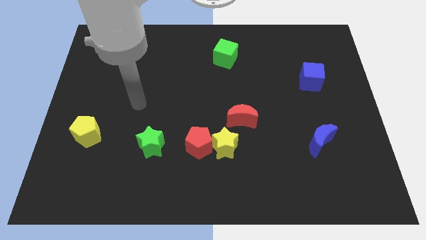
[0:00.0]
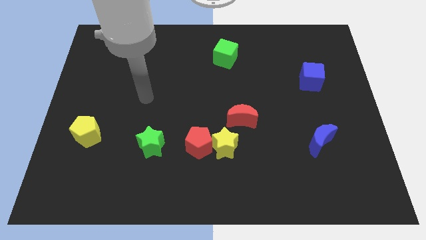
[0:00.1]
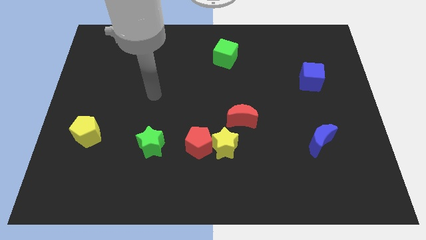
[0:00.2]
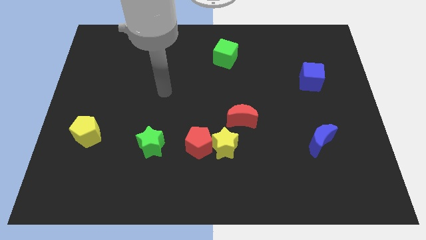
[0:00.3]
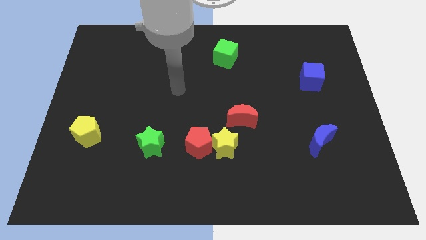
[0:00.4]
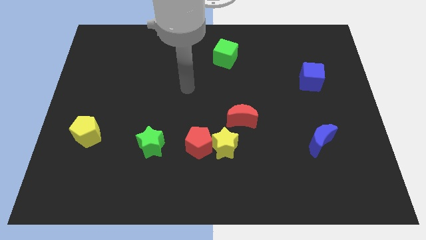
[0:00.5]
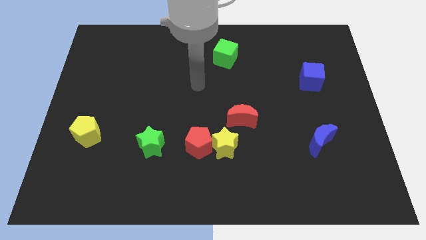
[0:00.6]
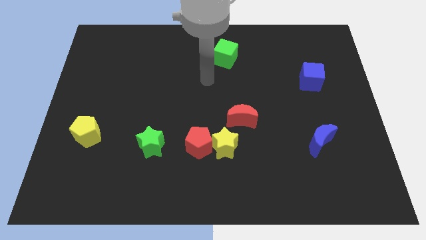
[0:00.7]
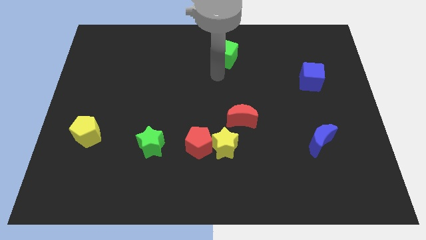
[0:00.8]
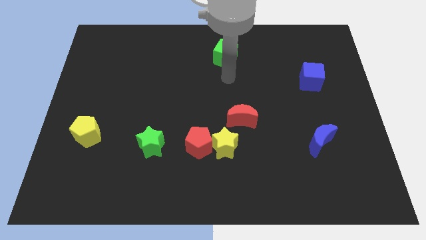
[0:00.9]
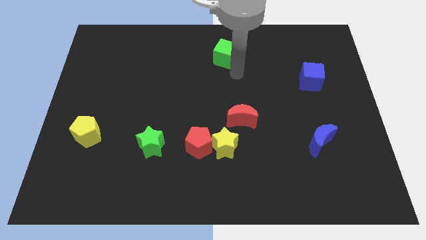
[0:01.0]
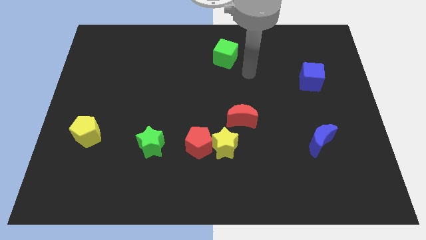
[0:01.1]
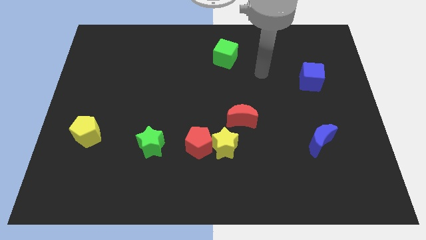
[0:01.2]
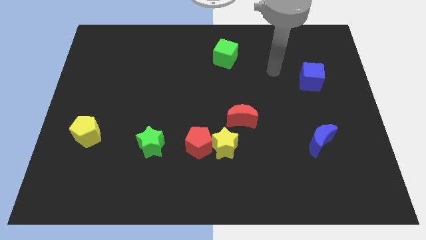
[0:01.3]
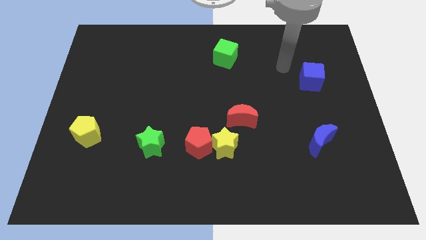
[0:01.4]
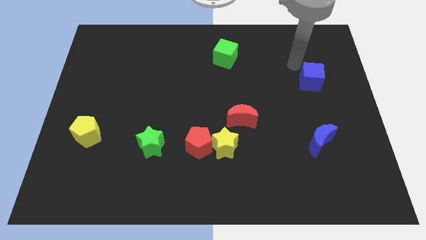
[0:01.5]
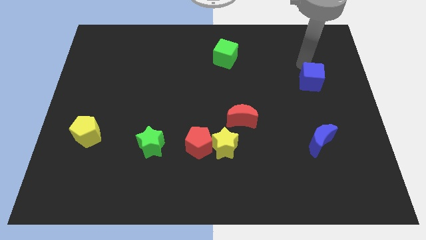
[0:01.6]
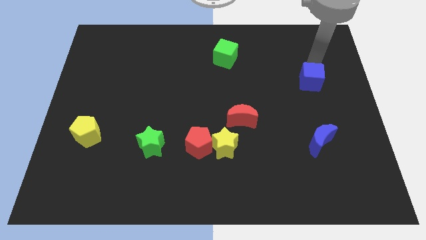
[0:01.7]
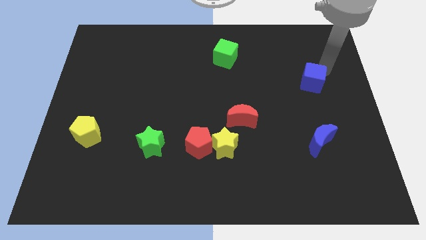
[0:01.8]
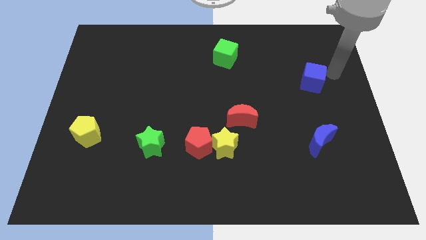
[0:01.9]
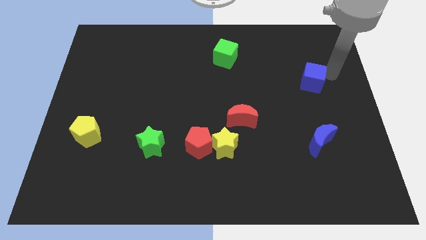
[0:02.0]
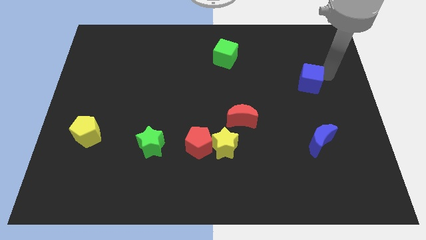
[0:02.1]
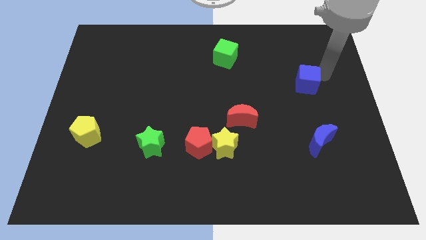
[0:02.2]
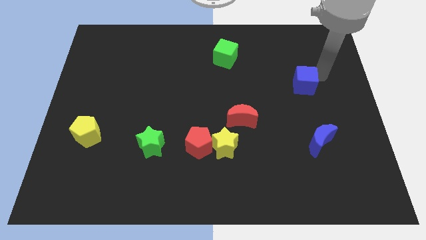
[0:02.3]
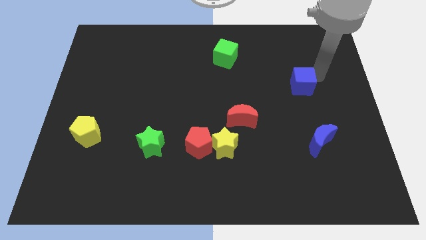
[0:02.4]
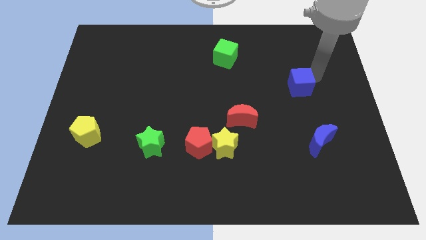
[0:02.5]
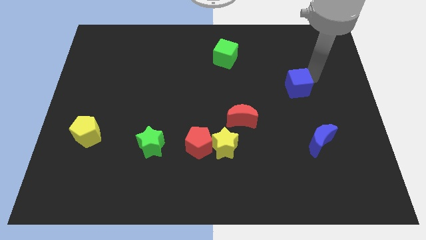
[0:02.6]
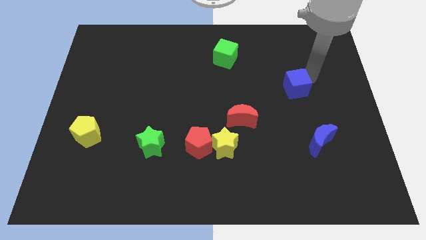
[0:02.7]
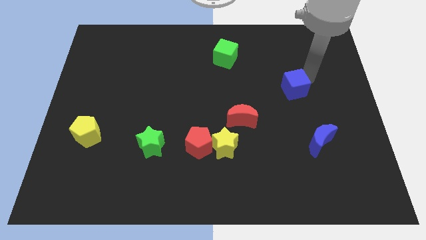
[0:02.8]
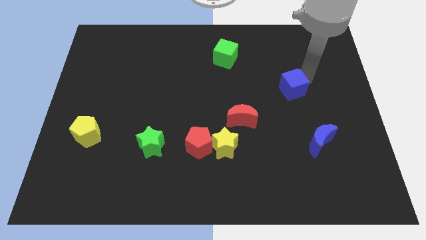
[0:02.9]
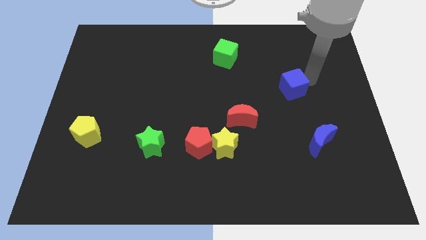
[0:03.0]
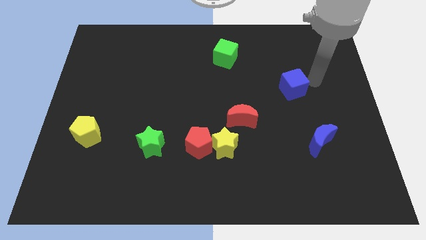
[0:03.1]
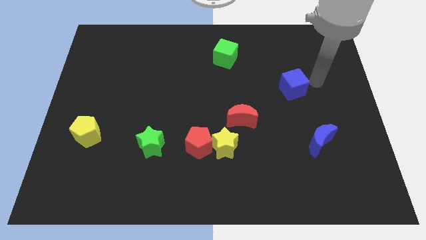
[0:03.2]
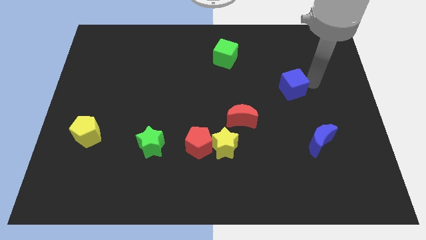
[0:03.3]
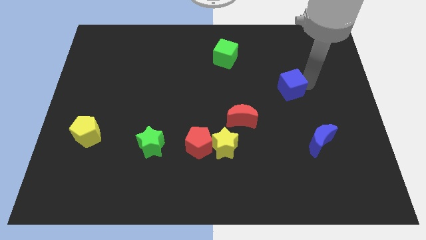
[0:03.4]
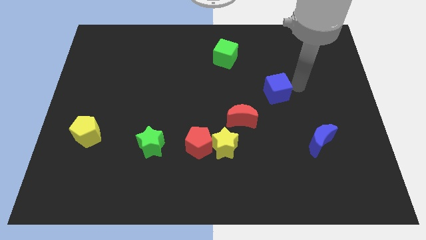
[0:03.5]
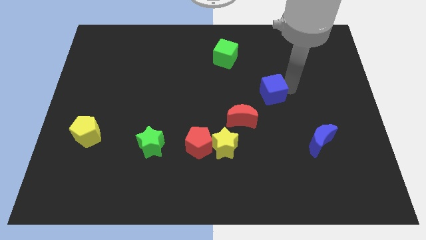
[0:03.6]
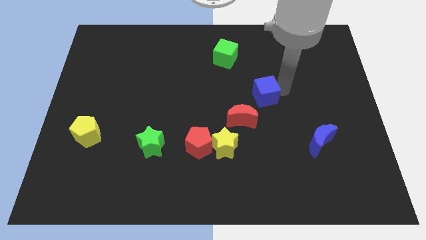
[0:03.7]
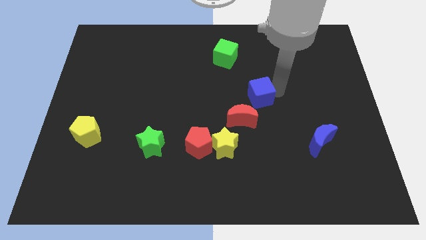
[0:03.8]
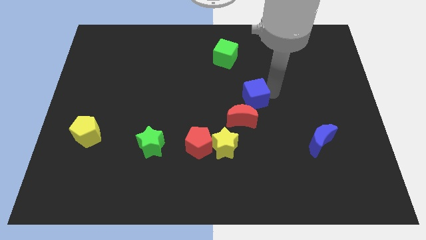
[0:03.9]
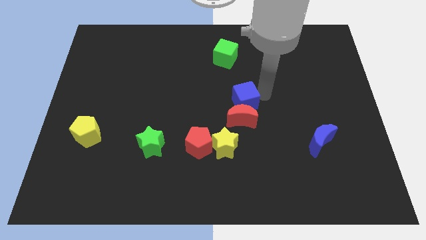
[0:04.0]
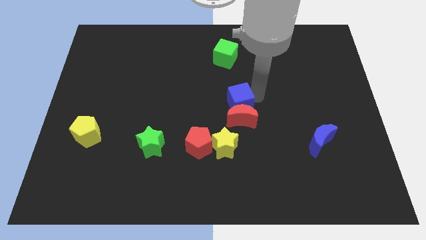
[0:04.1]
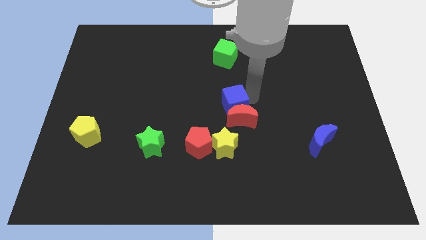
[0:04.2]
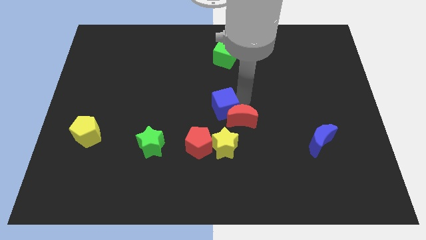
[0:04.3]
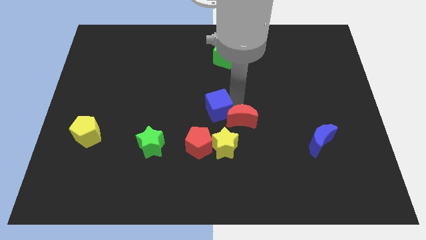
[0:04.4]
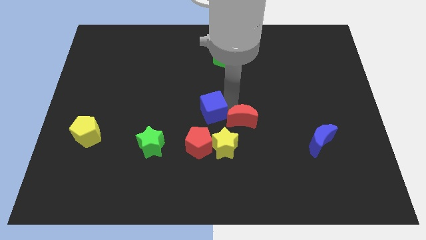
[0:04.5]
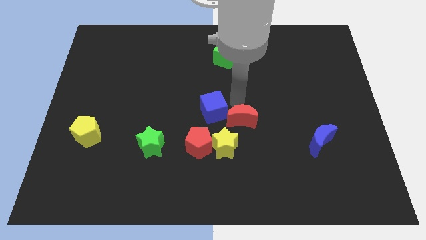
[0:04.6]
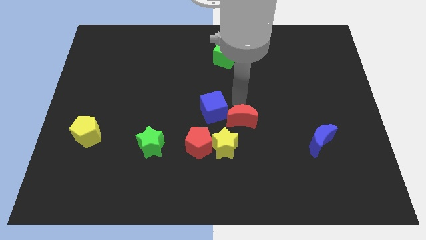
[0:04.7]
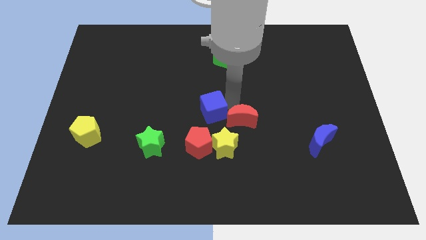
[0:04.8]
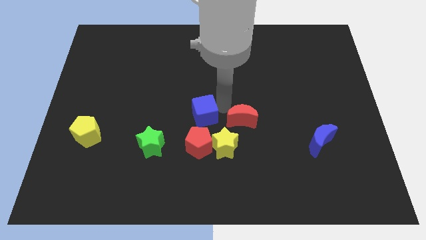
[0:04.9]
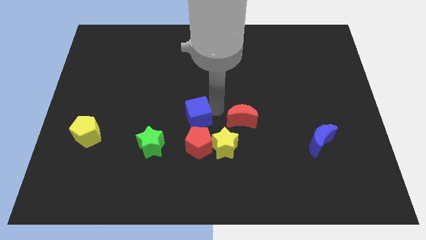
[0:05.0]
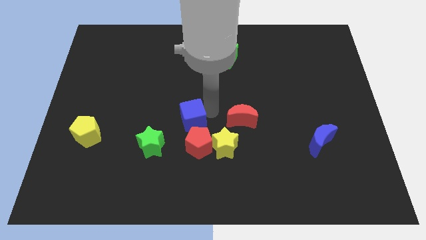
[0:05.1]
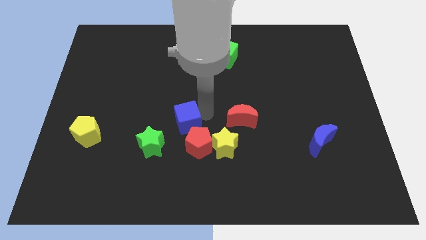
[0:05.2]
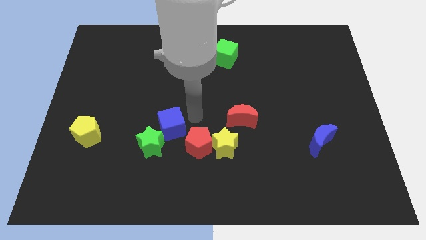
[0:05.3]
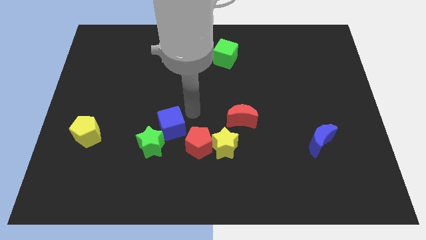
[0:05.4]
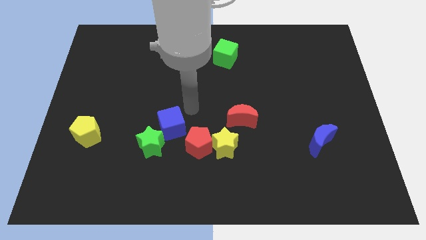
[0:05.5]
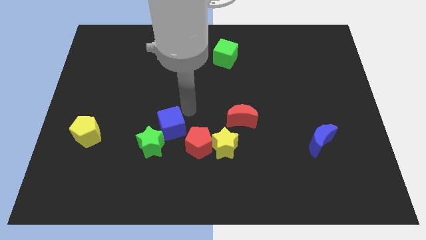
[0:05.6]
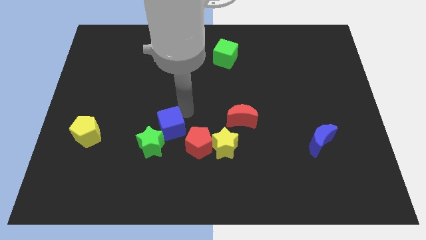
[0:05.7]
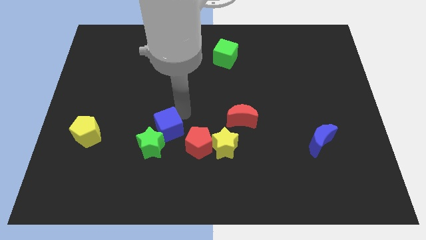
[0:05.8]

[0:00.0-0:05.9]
slide the blue cube close to the green star

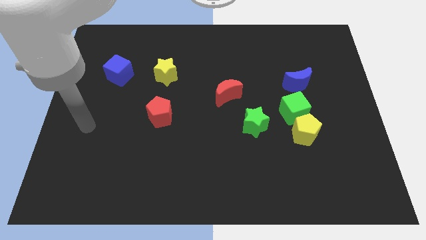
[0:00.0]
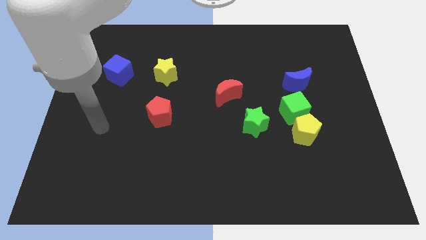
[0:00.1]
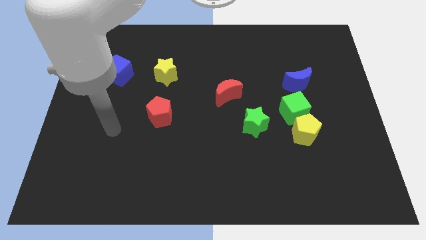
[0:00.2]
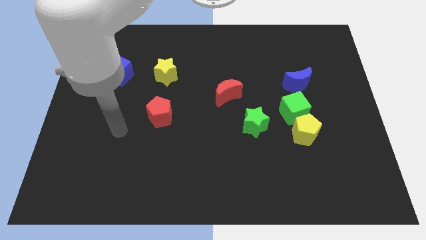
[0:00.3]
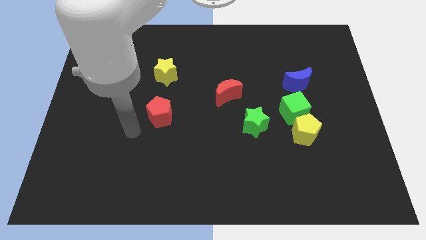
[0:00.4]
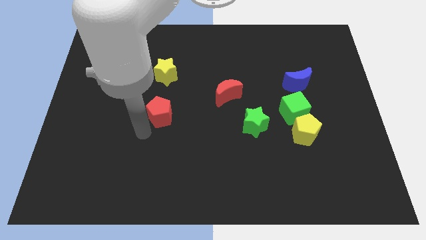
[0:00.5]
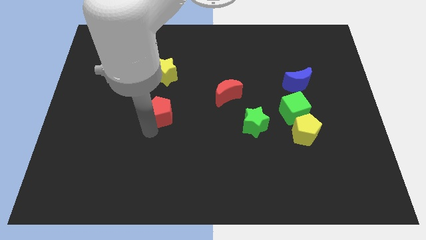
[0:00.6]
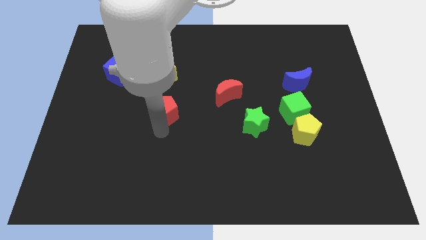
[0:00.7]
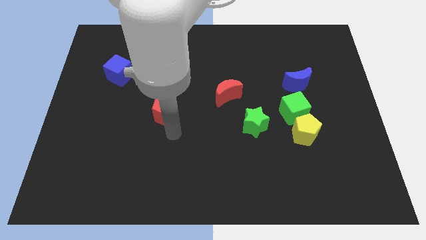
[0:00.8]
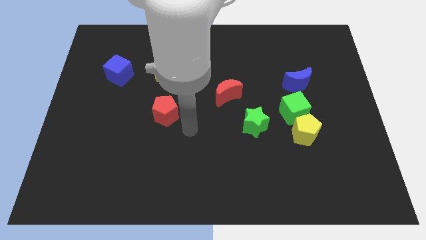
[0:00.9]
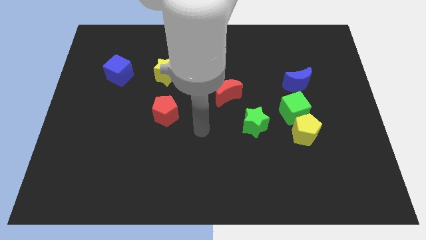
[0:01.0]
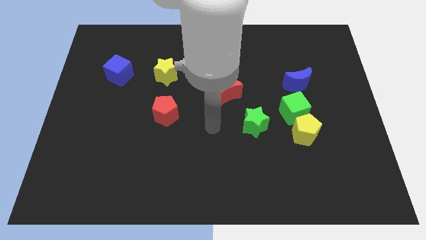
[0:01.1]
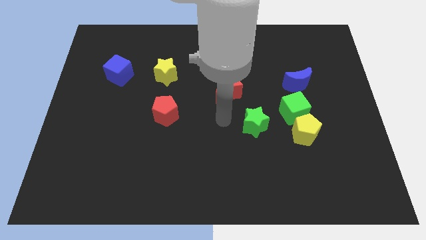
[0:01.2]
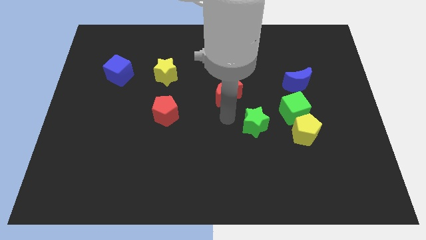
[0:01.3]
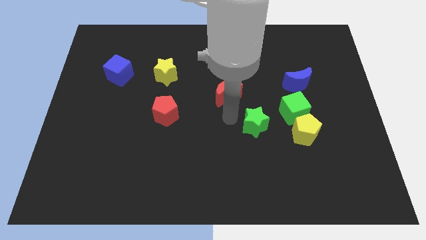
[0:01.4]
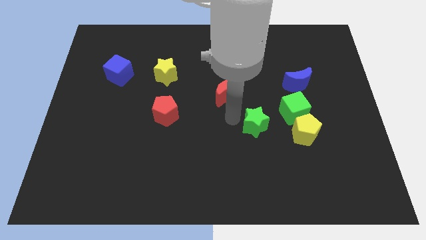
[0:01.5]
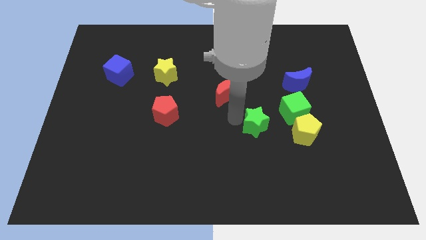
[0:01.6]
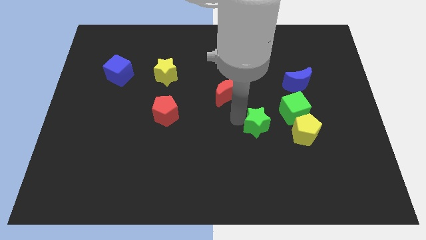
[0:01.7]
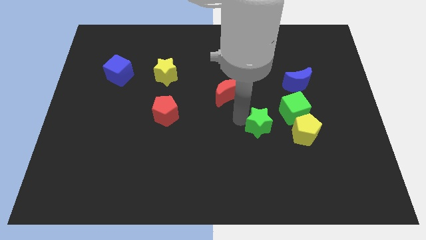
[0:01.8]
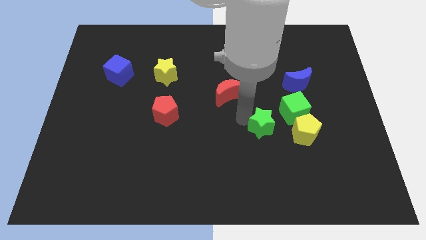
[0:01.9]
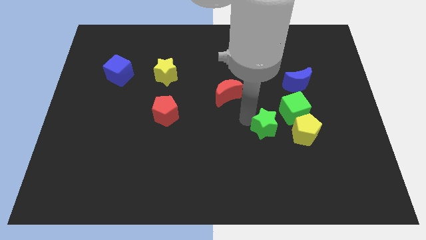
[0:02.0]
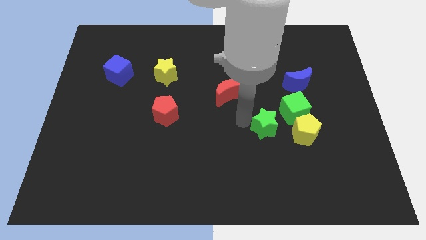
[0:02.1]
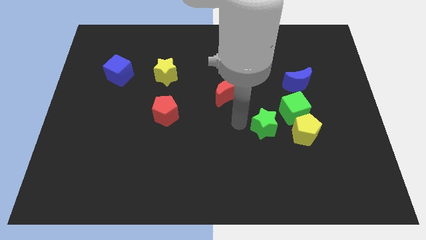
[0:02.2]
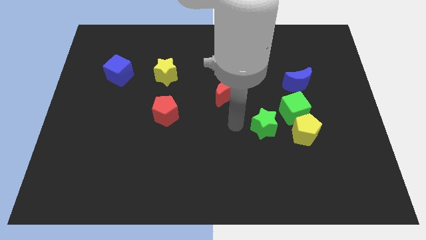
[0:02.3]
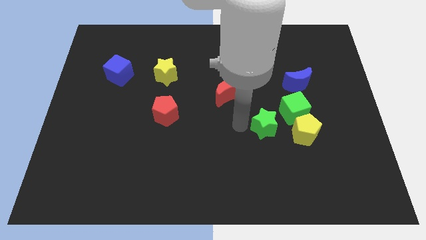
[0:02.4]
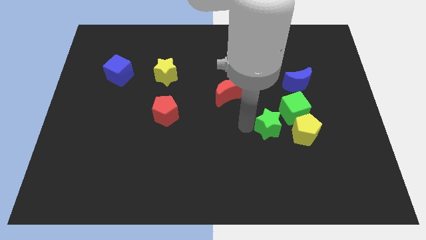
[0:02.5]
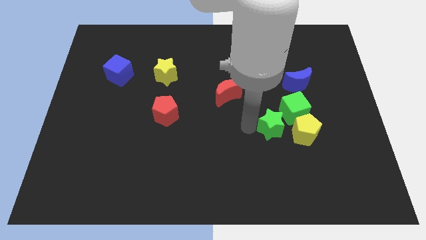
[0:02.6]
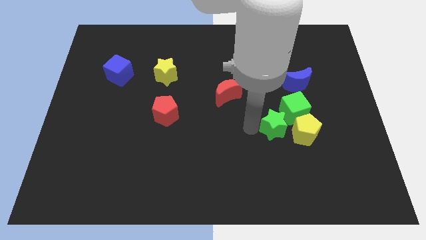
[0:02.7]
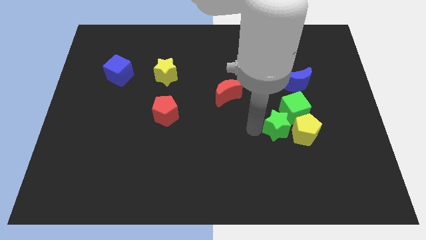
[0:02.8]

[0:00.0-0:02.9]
put the green star towards the yellow pentagon
